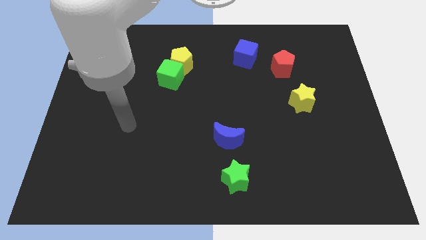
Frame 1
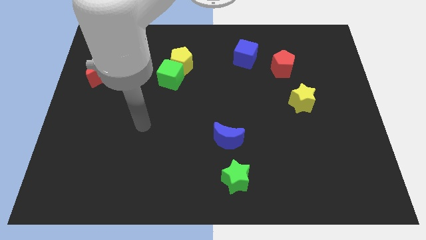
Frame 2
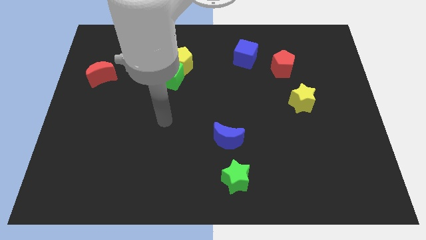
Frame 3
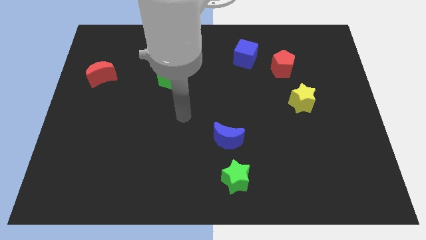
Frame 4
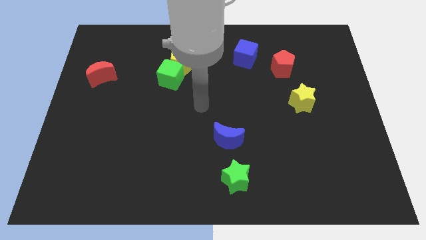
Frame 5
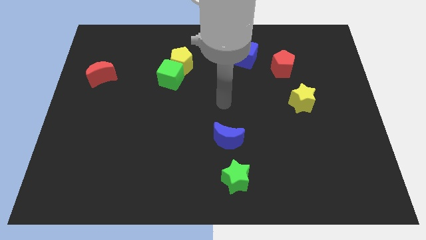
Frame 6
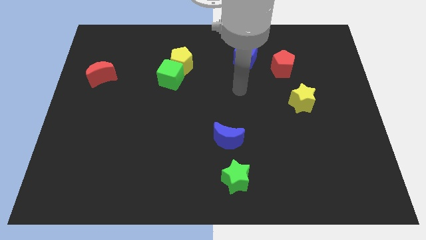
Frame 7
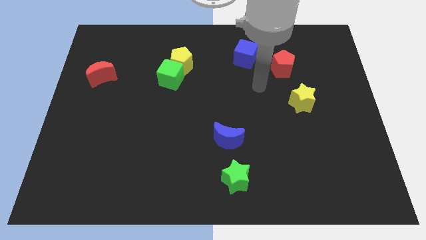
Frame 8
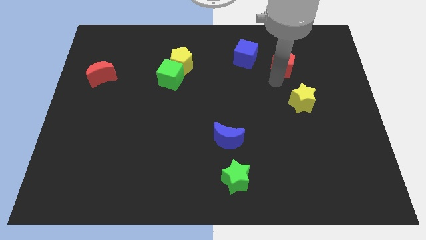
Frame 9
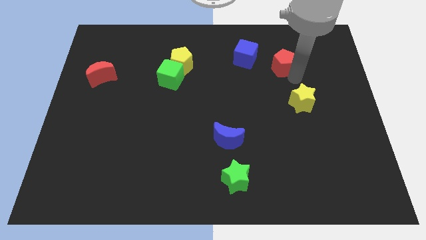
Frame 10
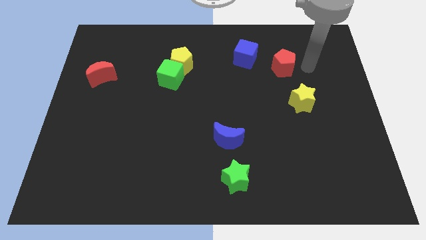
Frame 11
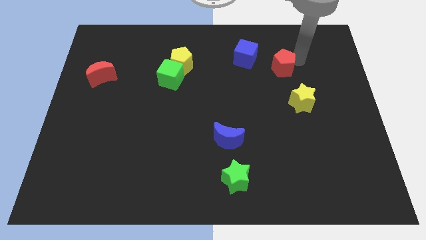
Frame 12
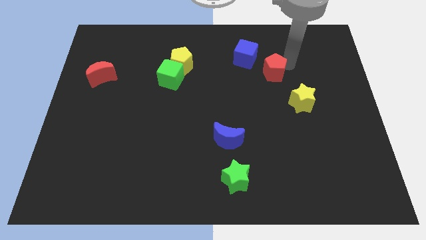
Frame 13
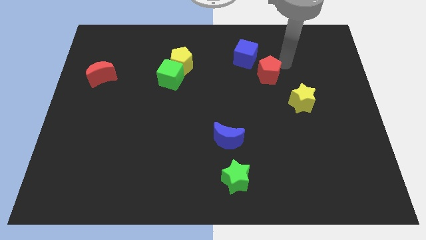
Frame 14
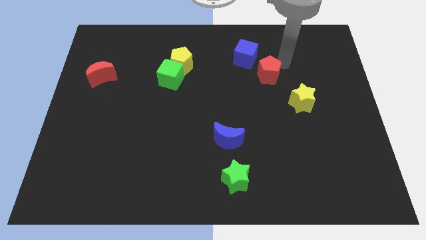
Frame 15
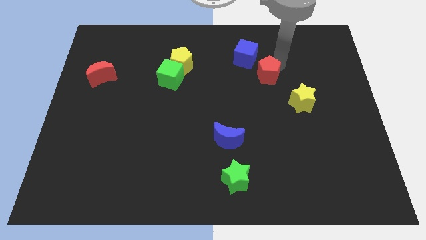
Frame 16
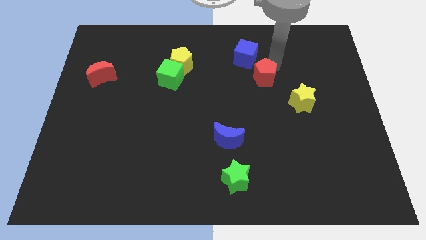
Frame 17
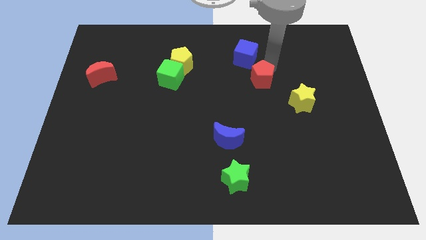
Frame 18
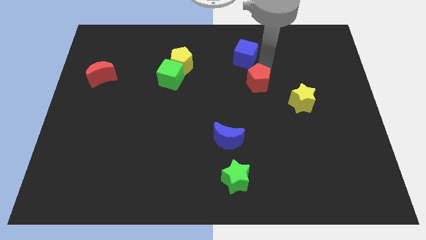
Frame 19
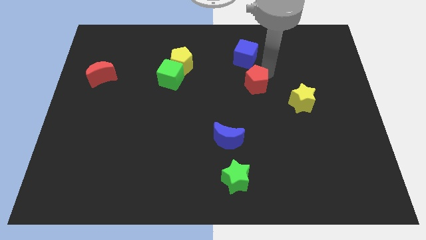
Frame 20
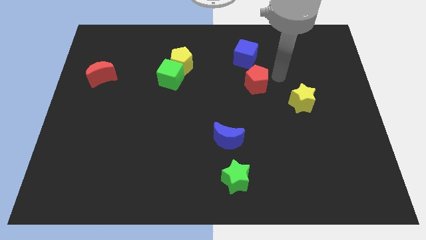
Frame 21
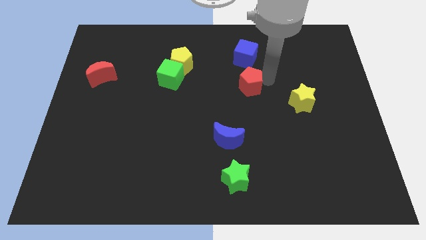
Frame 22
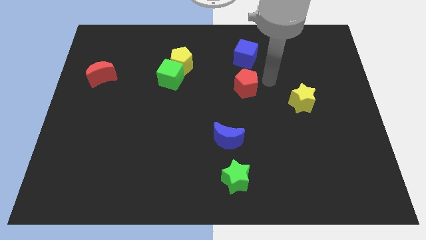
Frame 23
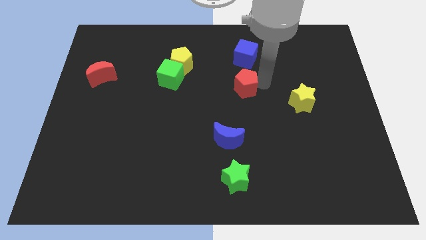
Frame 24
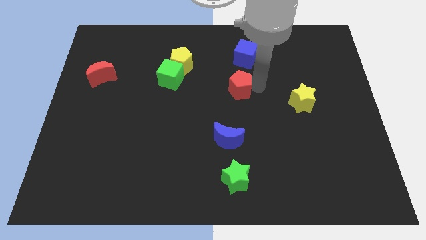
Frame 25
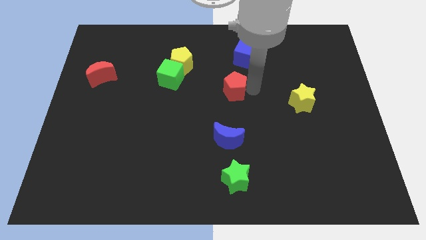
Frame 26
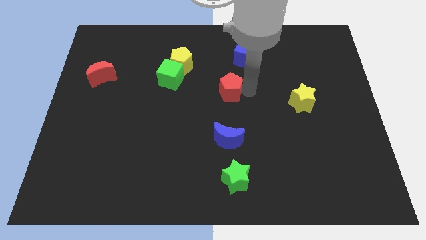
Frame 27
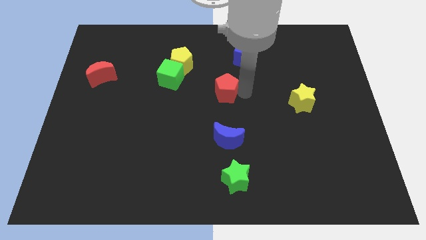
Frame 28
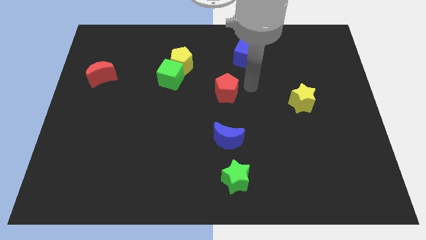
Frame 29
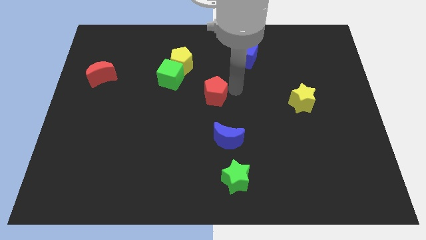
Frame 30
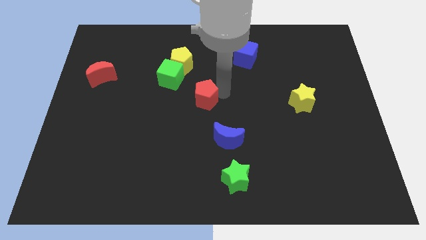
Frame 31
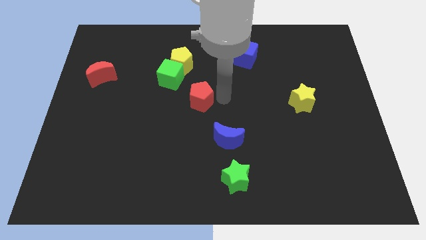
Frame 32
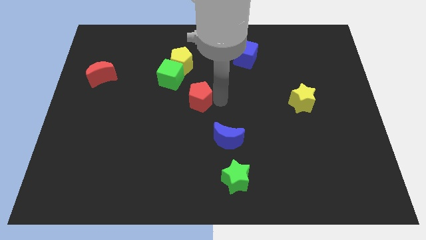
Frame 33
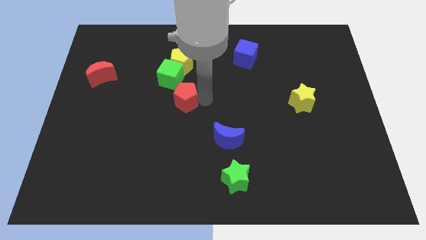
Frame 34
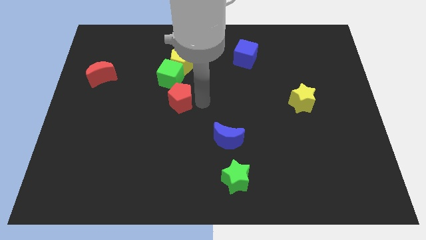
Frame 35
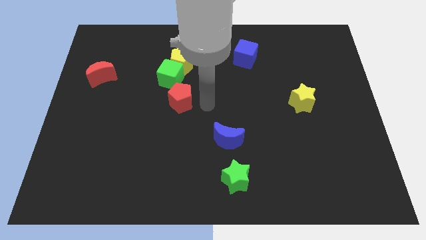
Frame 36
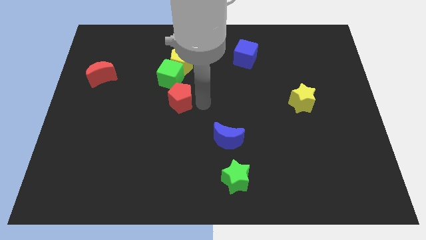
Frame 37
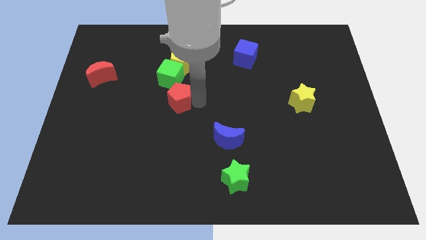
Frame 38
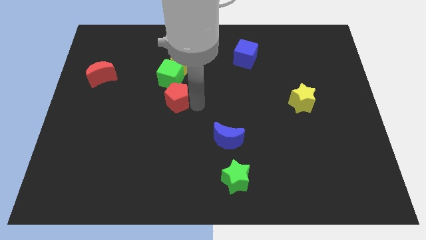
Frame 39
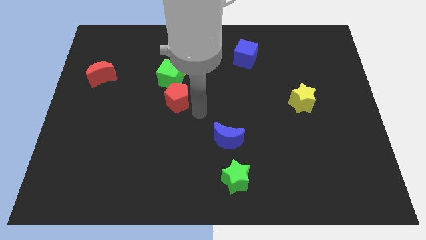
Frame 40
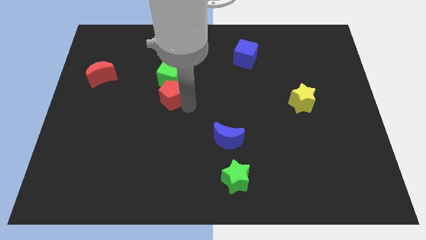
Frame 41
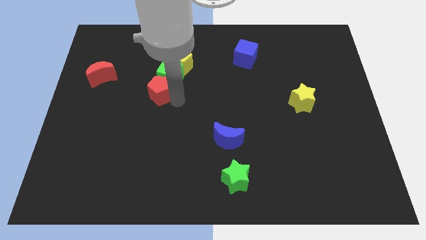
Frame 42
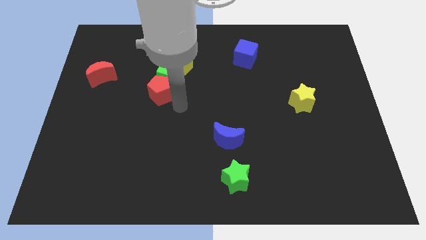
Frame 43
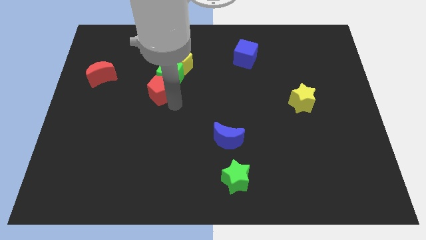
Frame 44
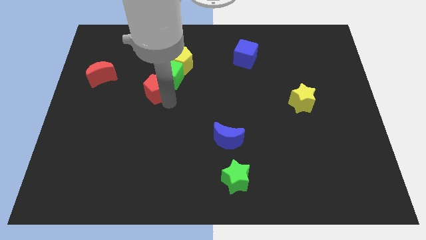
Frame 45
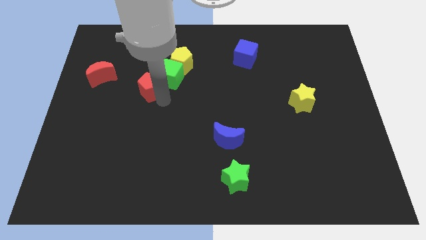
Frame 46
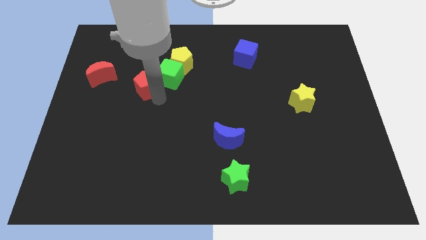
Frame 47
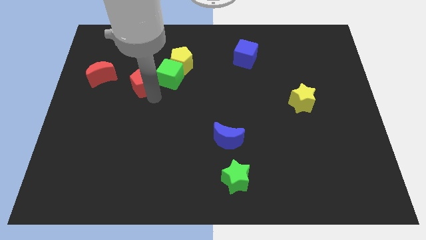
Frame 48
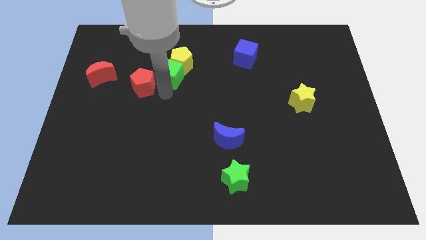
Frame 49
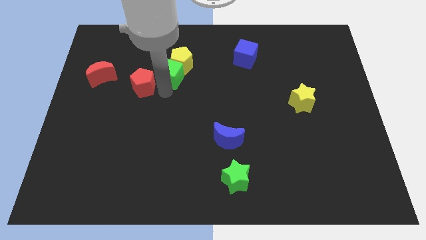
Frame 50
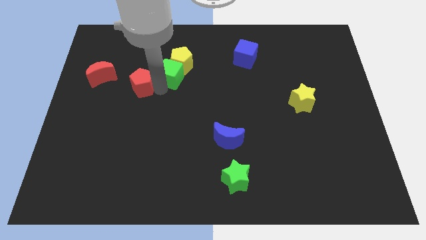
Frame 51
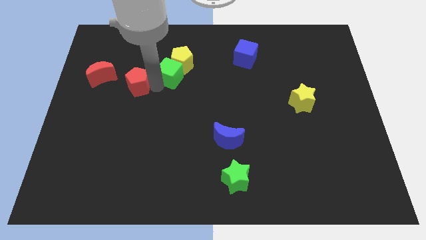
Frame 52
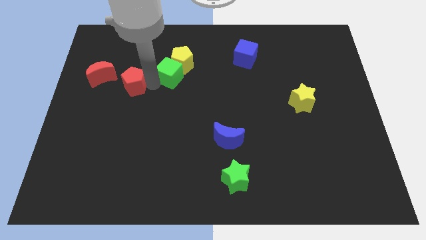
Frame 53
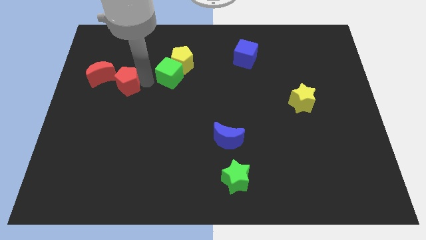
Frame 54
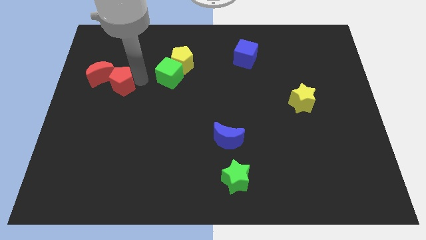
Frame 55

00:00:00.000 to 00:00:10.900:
push the red pentagon close to the red moon
